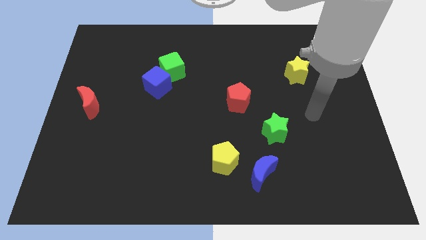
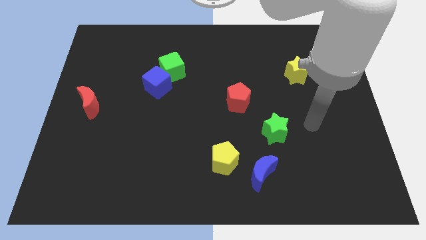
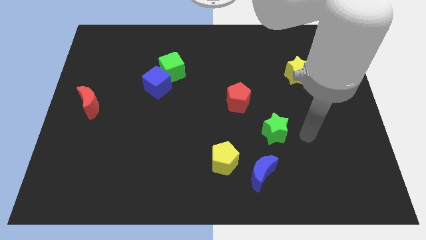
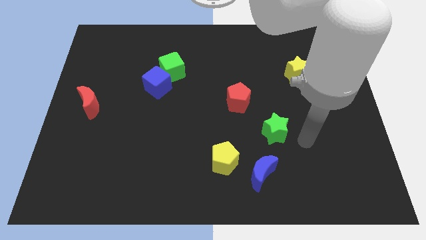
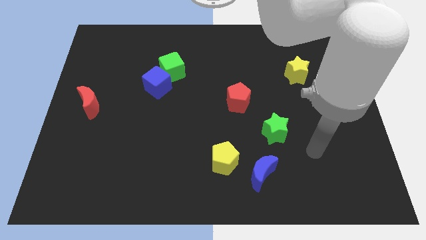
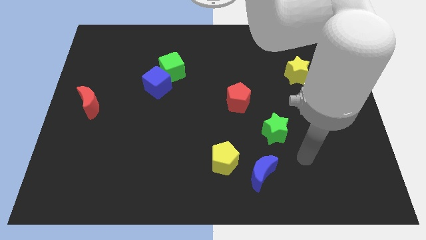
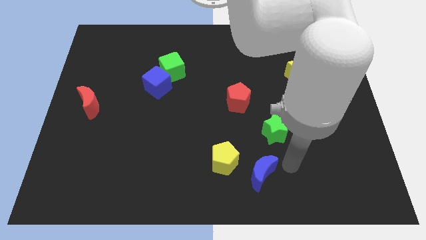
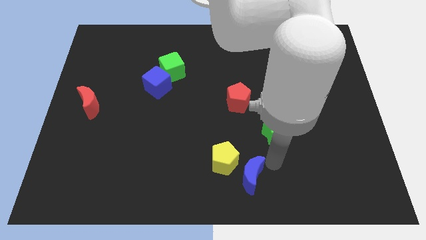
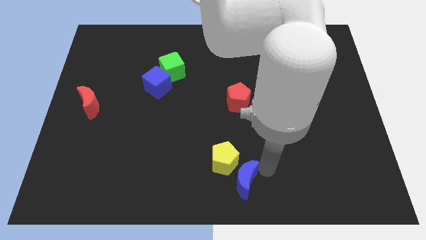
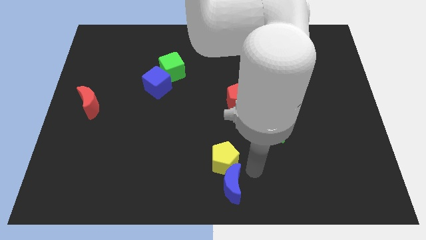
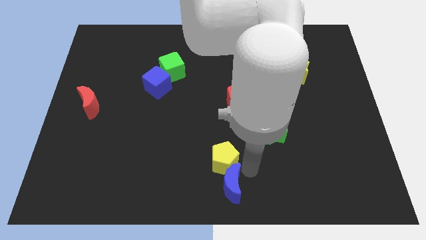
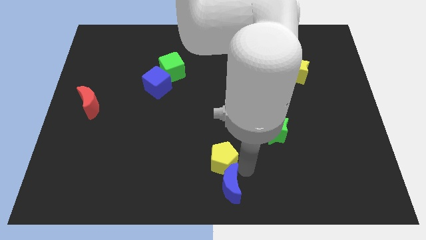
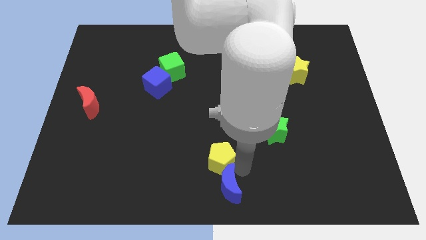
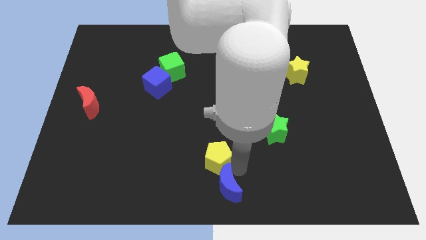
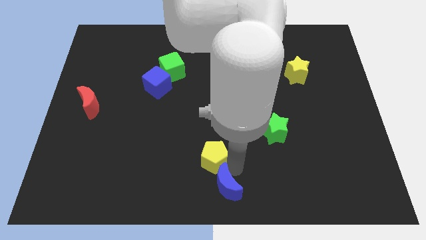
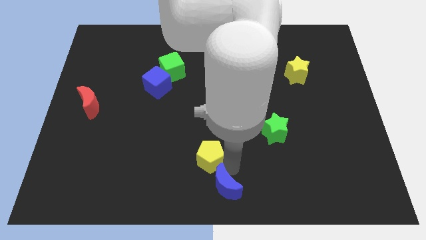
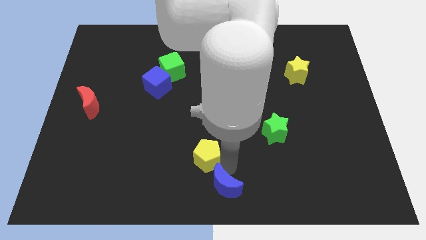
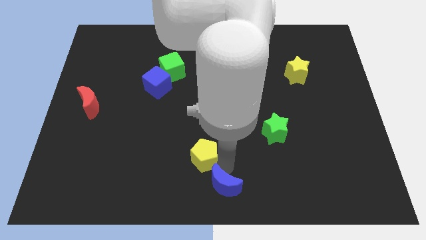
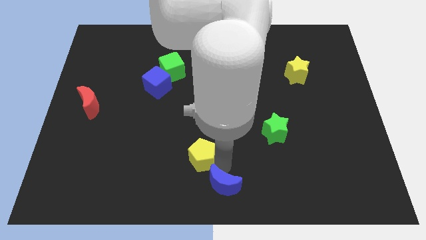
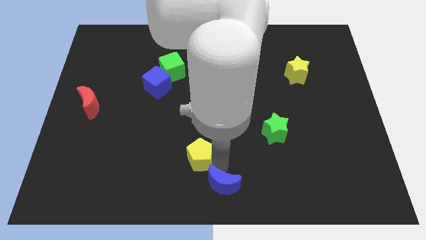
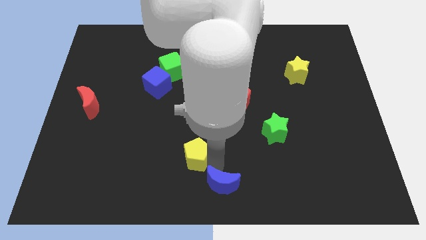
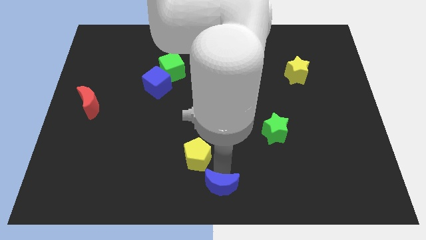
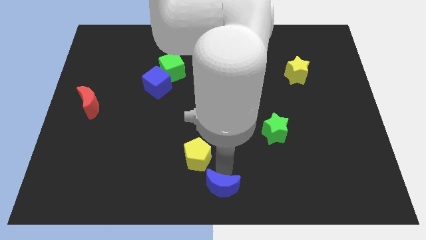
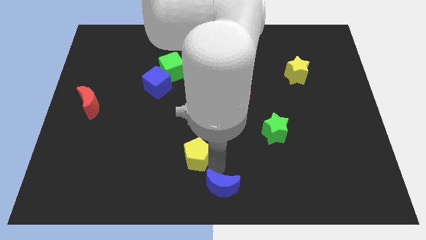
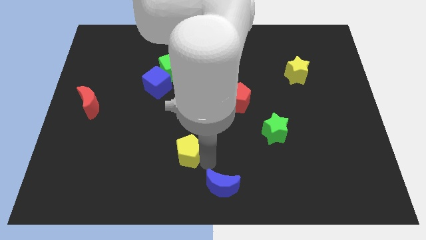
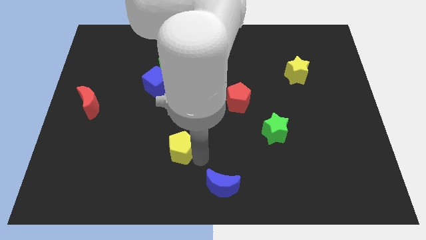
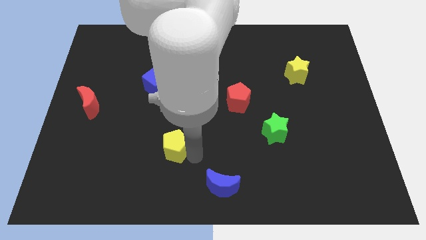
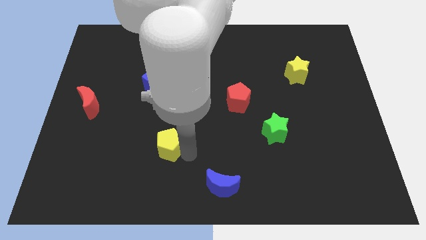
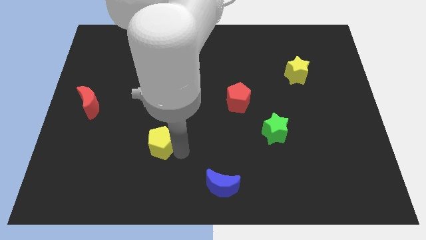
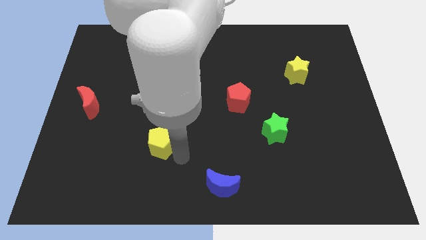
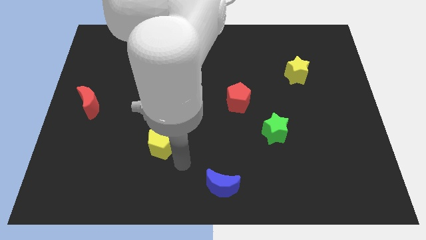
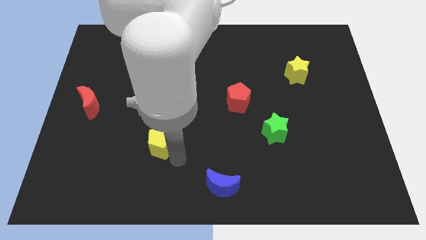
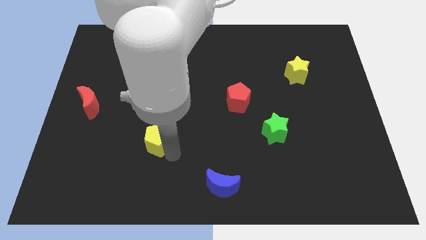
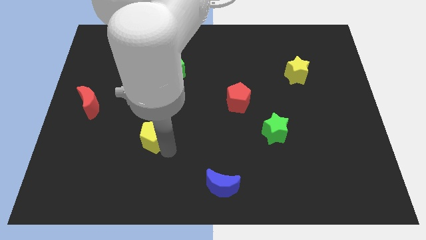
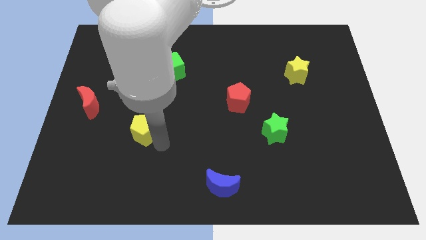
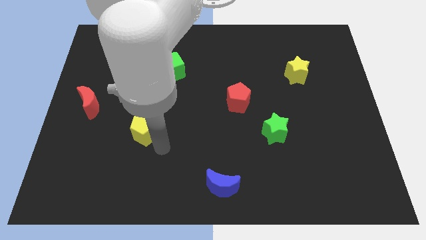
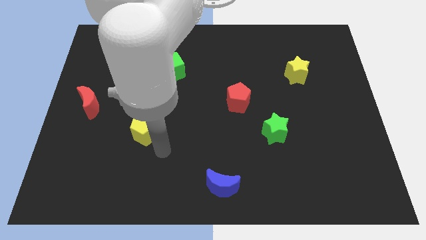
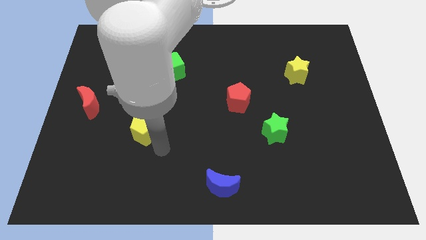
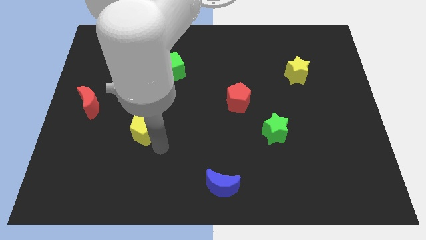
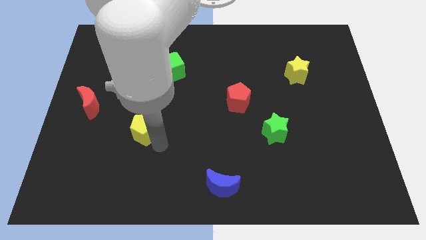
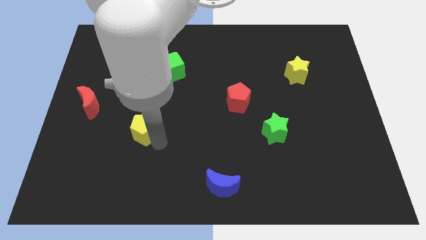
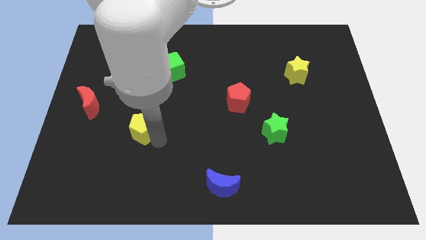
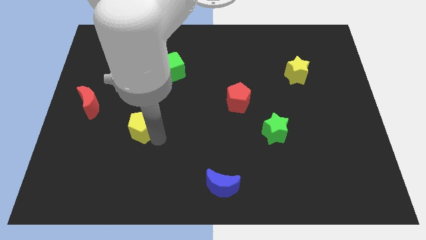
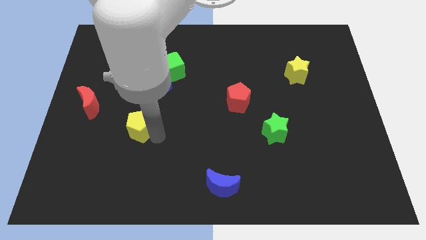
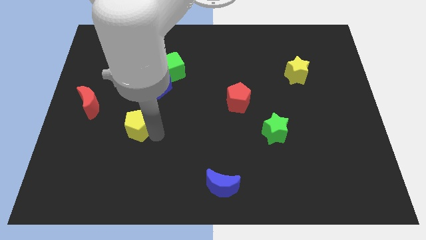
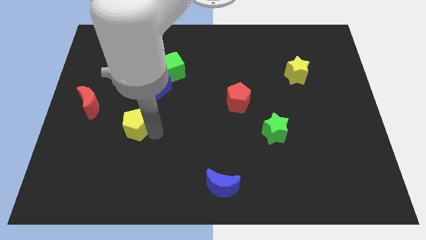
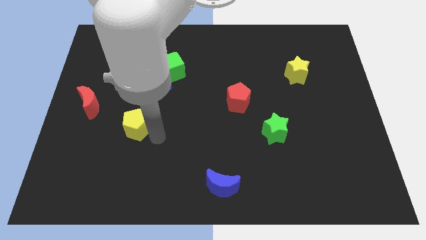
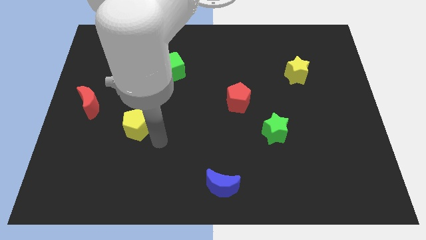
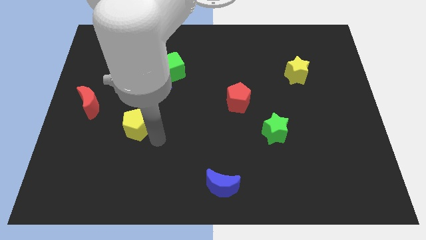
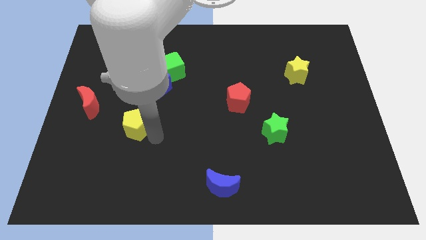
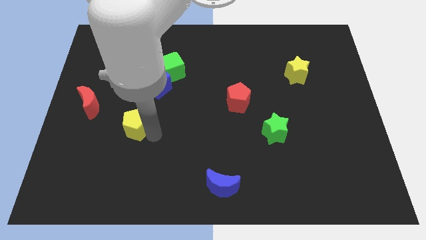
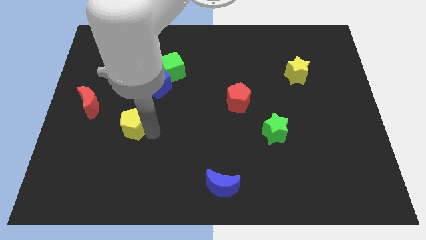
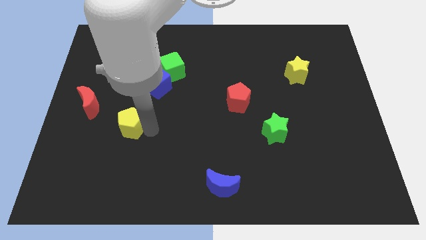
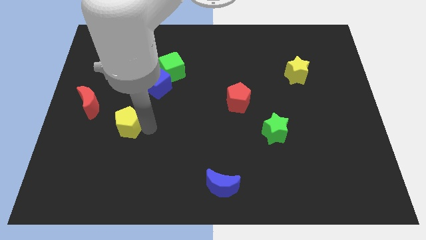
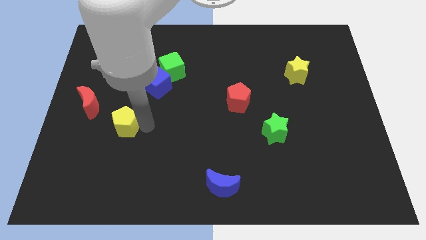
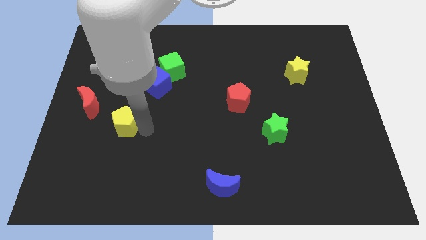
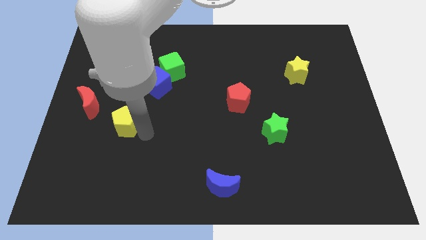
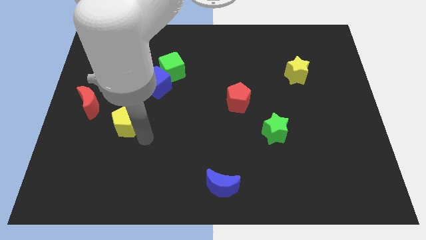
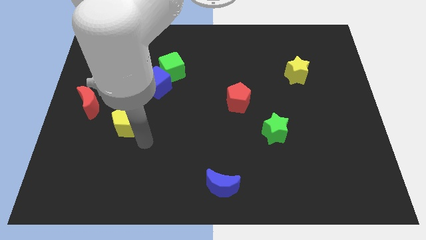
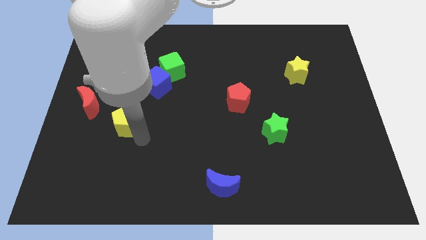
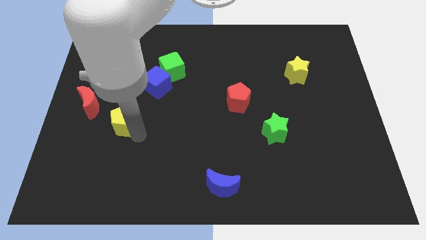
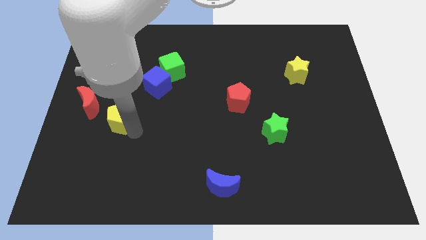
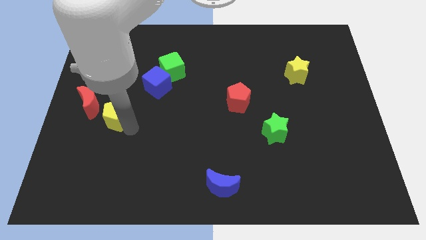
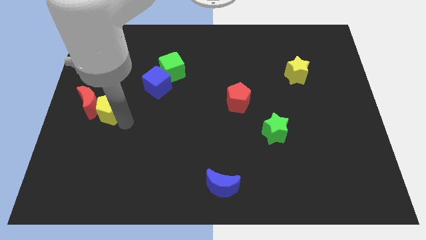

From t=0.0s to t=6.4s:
move the yellow pentagon next to the red moon
